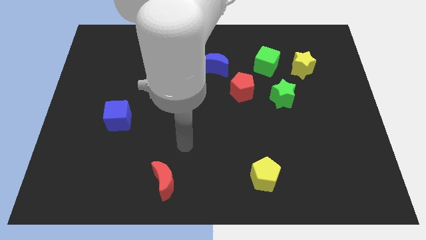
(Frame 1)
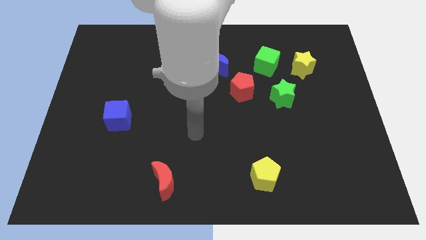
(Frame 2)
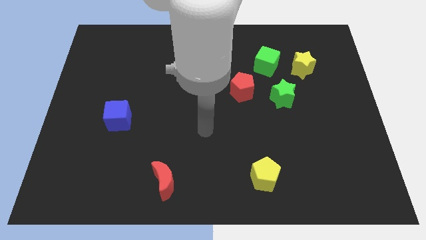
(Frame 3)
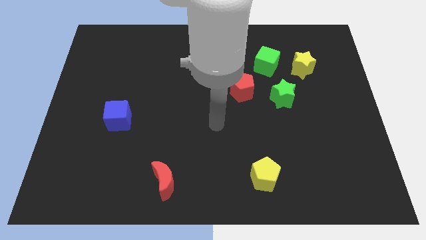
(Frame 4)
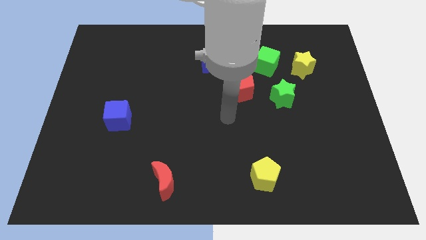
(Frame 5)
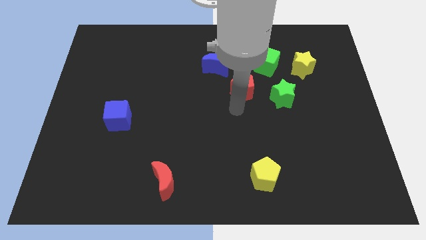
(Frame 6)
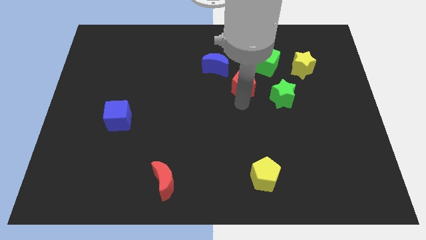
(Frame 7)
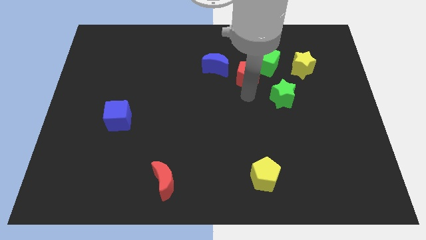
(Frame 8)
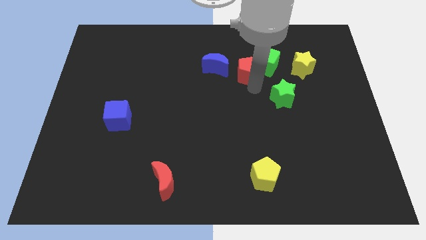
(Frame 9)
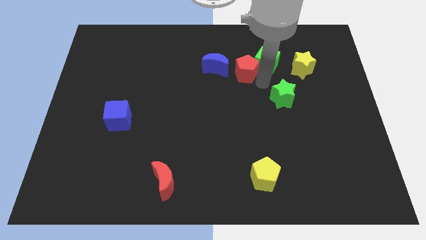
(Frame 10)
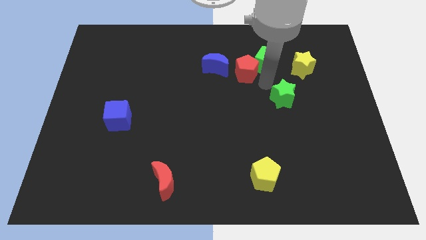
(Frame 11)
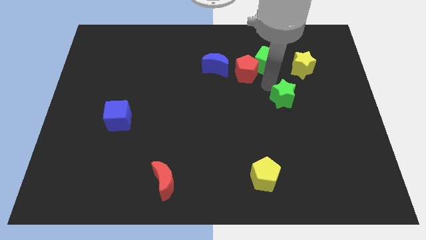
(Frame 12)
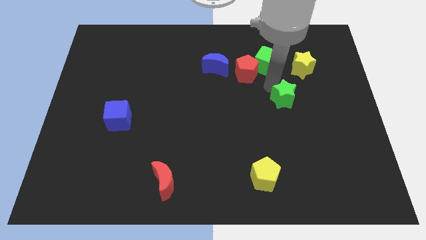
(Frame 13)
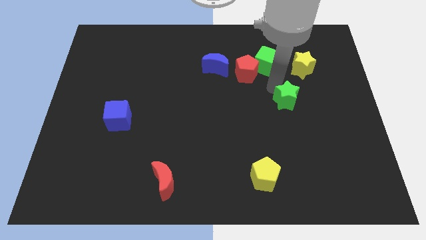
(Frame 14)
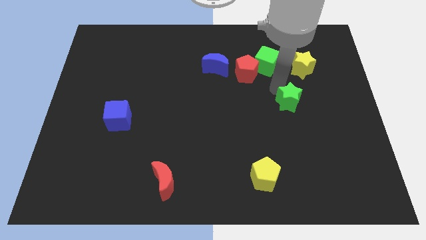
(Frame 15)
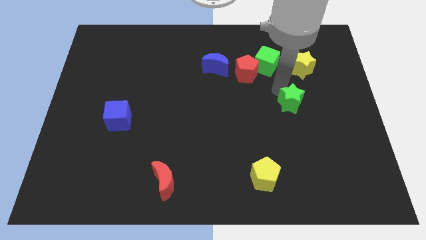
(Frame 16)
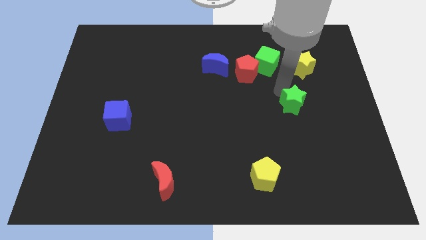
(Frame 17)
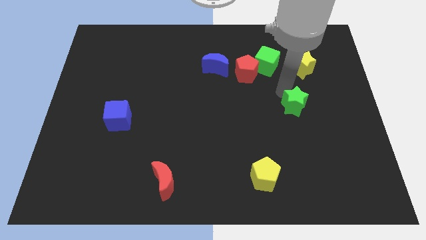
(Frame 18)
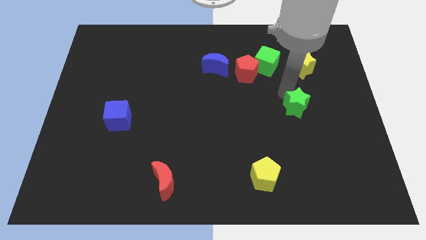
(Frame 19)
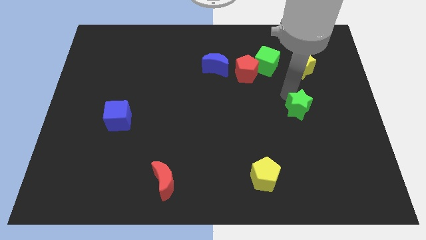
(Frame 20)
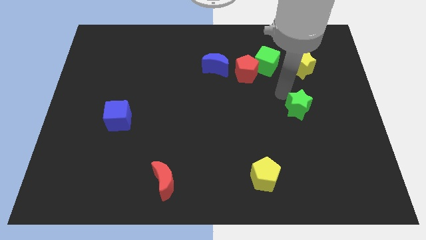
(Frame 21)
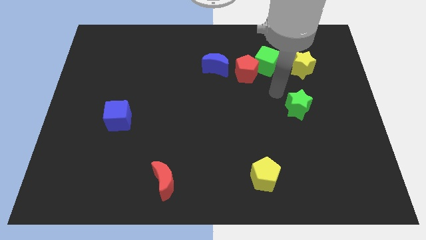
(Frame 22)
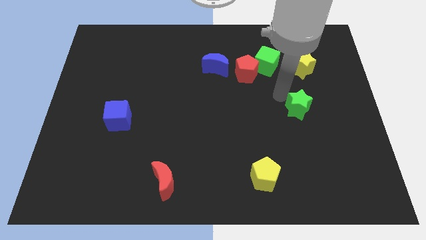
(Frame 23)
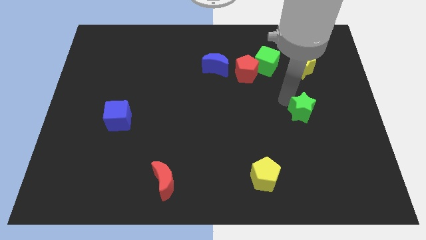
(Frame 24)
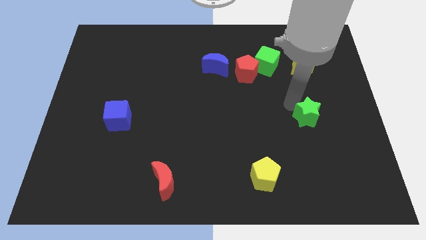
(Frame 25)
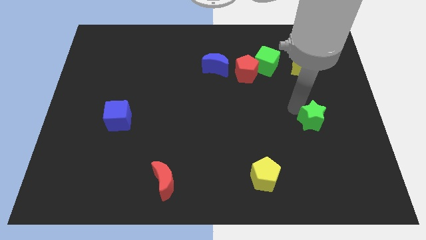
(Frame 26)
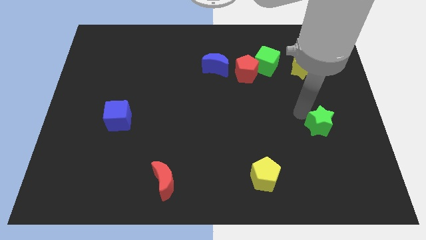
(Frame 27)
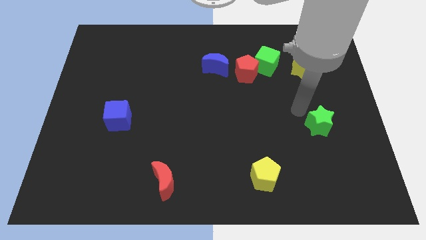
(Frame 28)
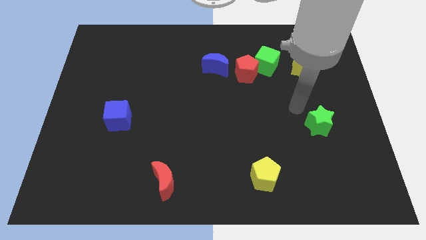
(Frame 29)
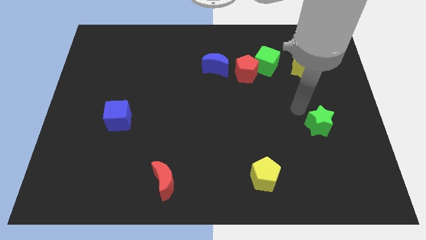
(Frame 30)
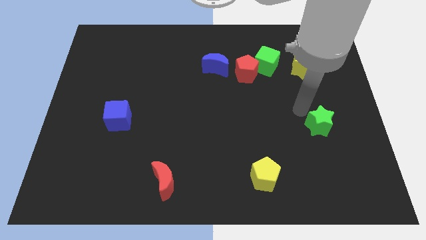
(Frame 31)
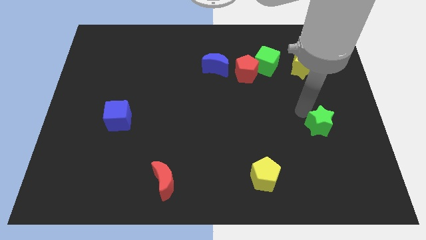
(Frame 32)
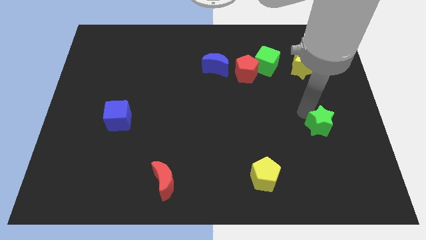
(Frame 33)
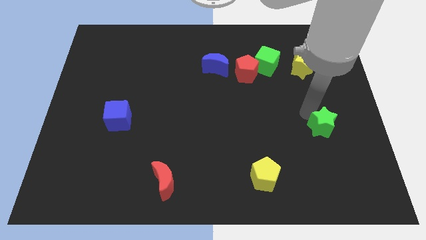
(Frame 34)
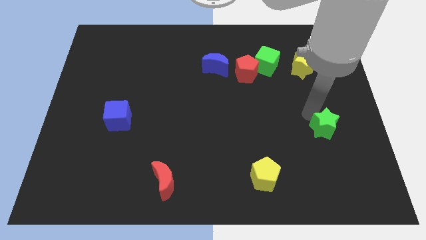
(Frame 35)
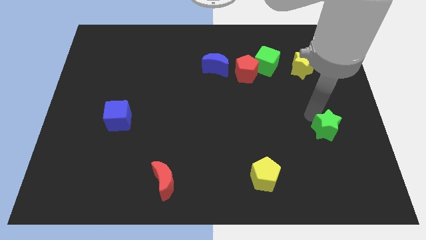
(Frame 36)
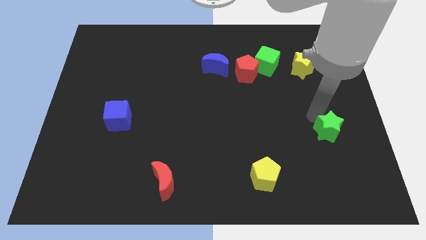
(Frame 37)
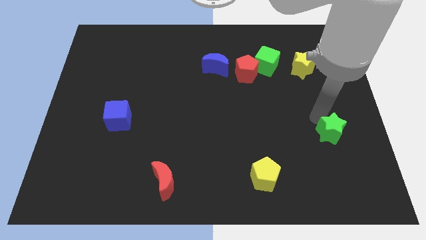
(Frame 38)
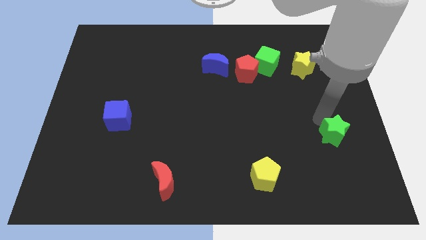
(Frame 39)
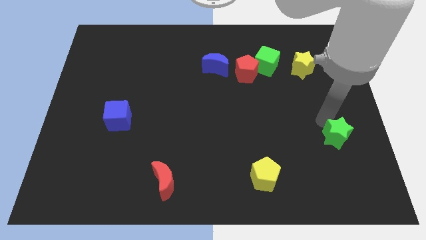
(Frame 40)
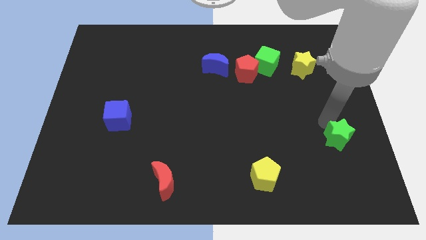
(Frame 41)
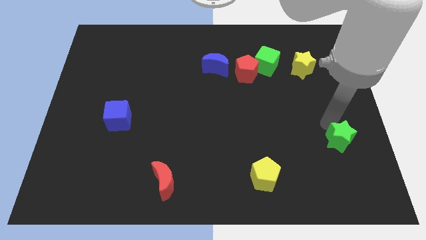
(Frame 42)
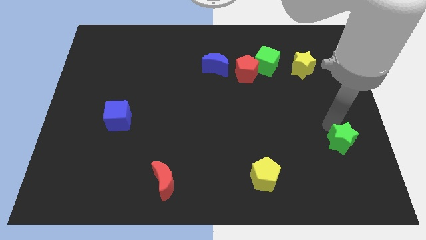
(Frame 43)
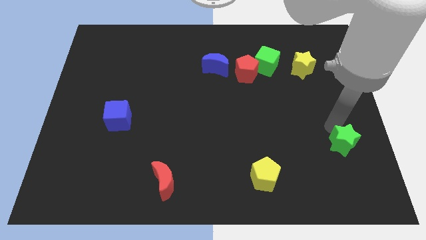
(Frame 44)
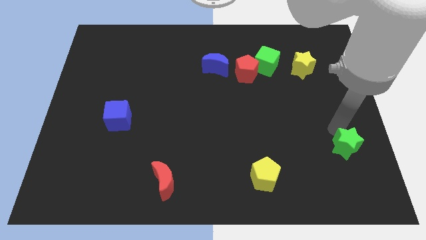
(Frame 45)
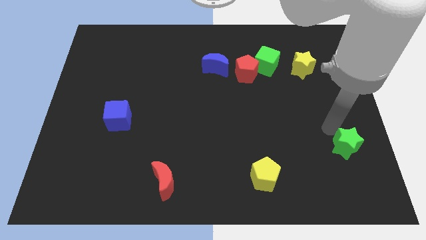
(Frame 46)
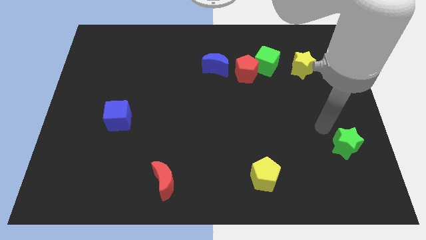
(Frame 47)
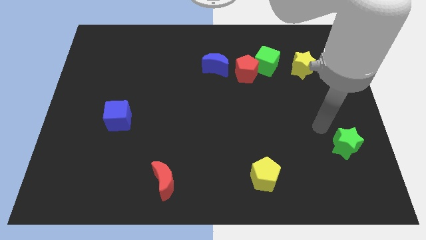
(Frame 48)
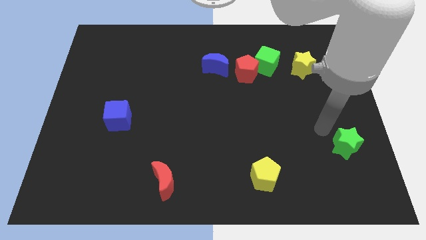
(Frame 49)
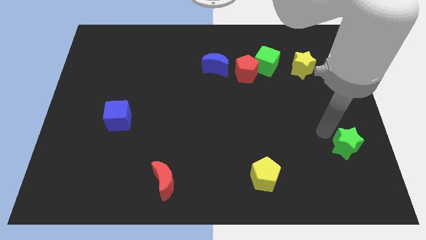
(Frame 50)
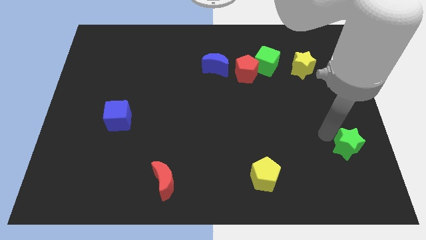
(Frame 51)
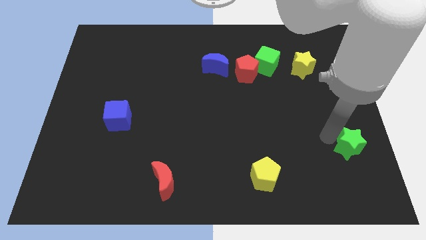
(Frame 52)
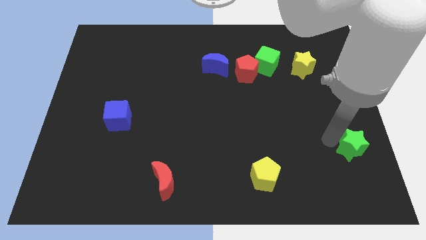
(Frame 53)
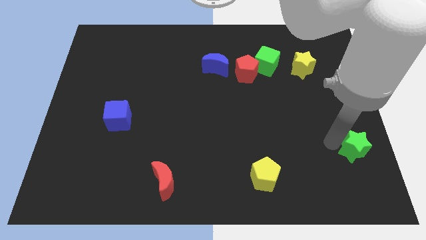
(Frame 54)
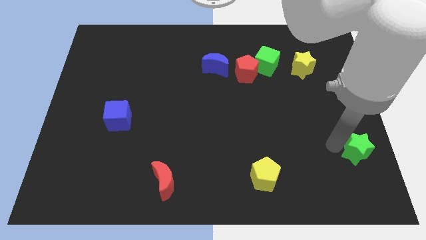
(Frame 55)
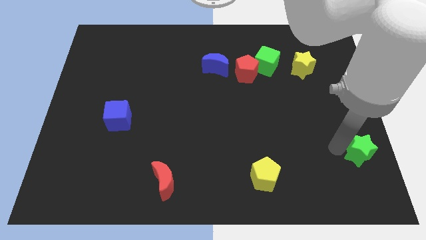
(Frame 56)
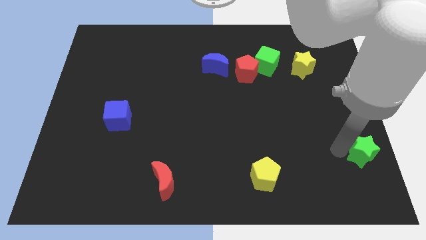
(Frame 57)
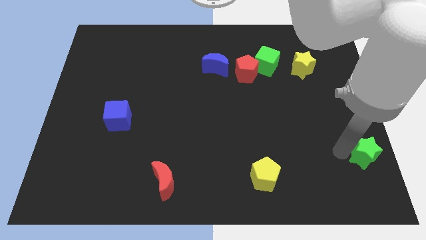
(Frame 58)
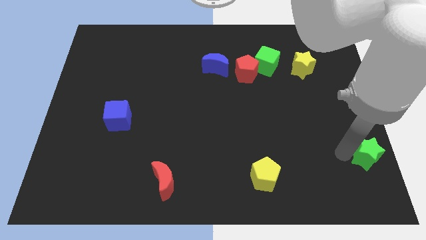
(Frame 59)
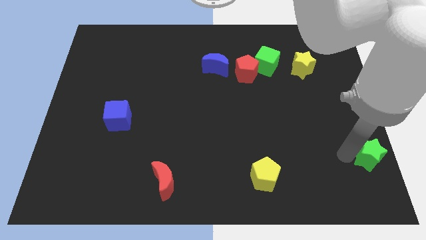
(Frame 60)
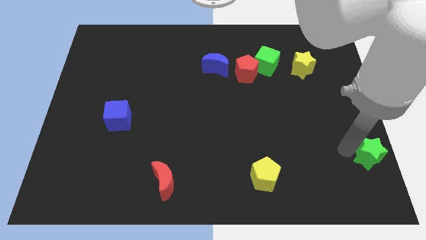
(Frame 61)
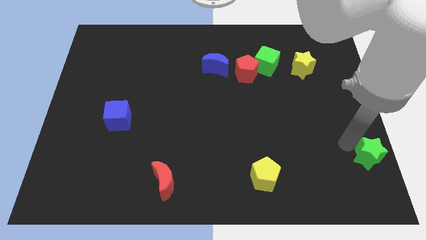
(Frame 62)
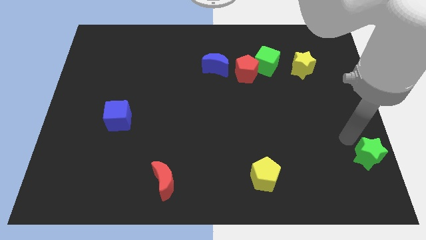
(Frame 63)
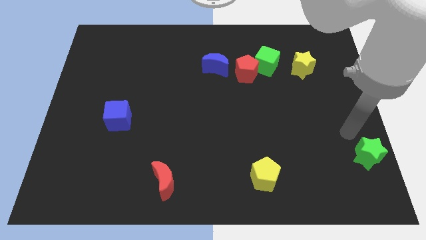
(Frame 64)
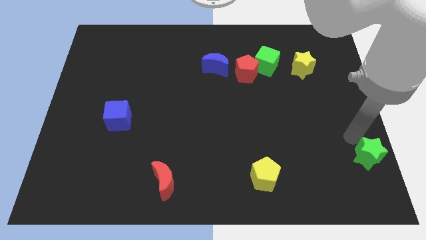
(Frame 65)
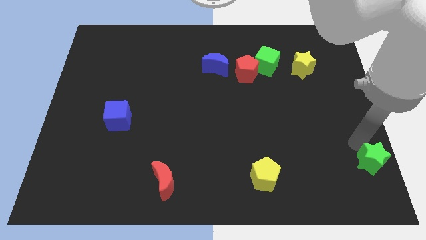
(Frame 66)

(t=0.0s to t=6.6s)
put the green star to the lower right corner

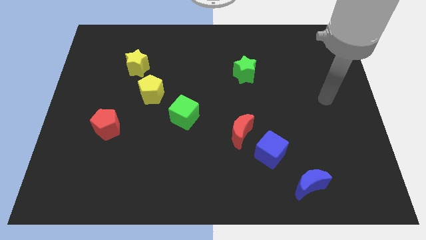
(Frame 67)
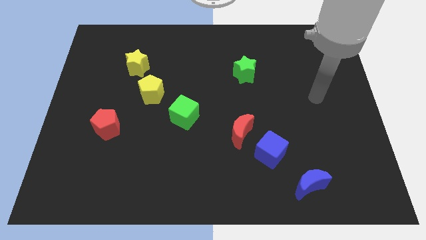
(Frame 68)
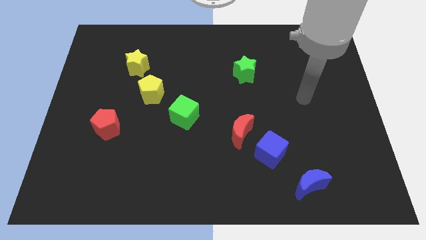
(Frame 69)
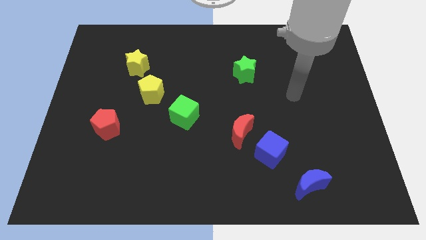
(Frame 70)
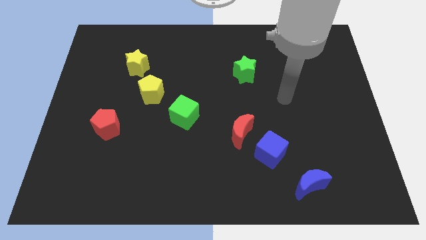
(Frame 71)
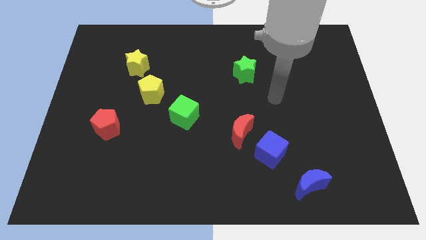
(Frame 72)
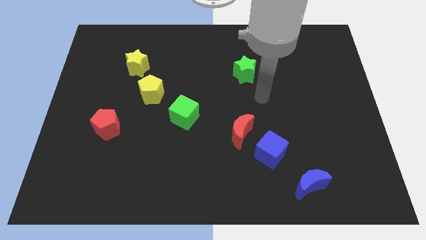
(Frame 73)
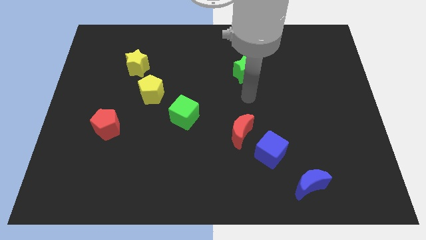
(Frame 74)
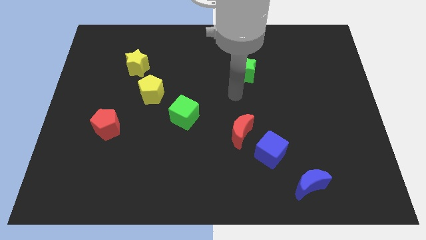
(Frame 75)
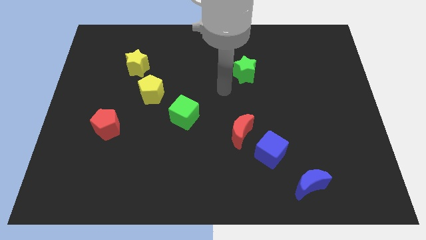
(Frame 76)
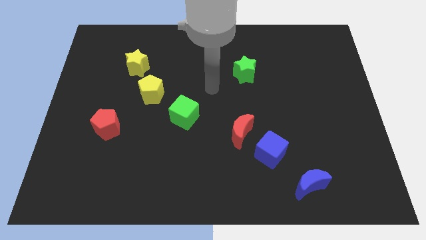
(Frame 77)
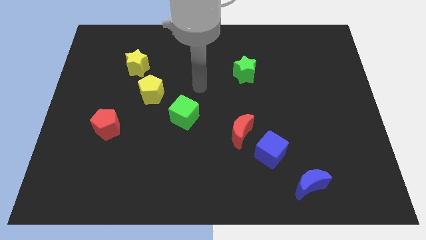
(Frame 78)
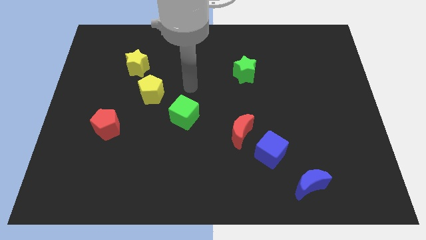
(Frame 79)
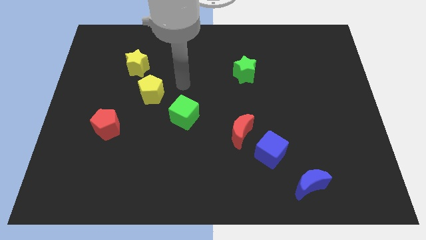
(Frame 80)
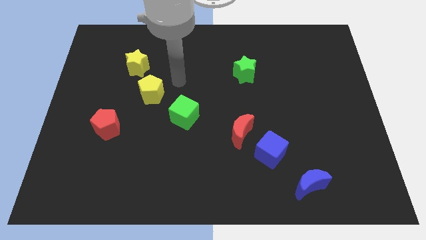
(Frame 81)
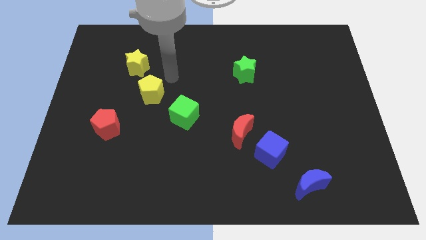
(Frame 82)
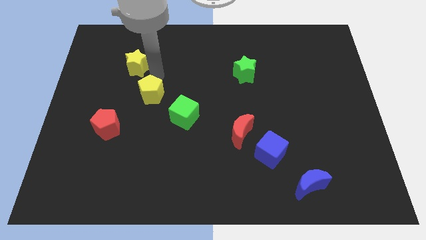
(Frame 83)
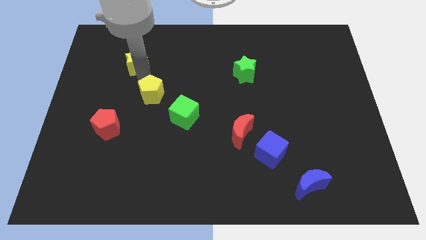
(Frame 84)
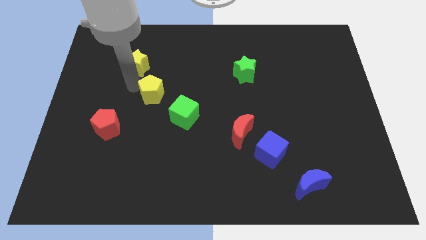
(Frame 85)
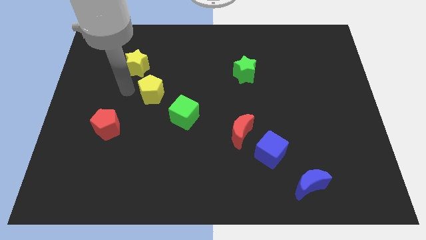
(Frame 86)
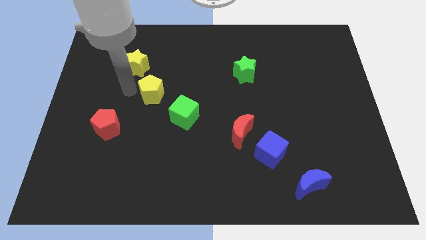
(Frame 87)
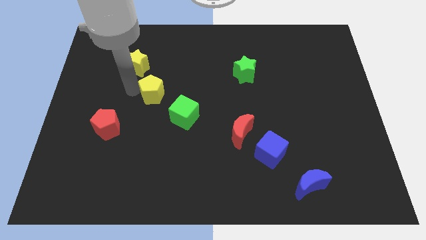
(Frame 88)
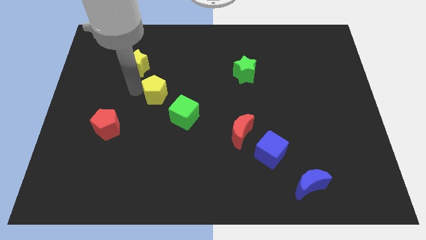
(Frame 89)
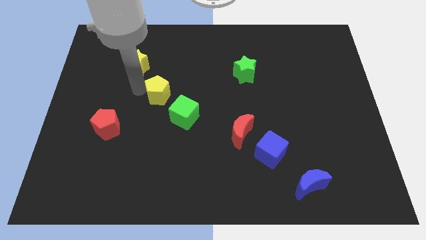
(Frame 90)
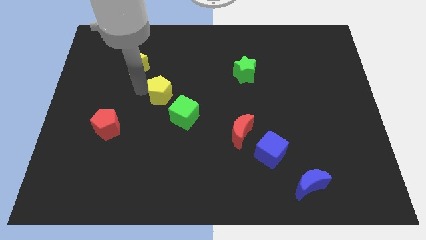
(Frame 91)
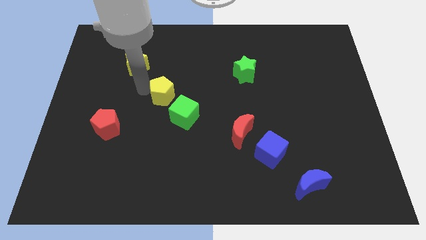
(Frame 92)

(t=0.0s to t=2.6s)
push the yellow pentagon to the center
